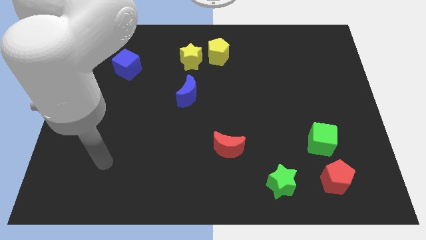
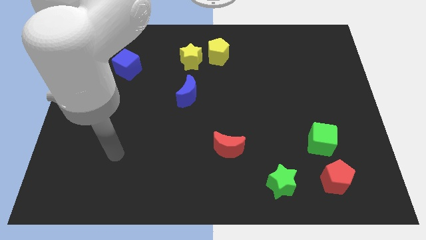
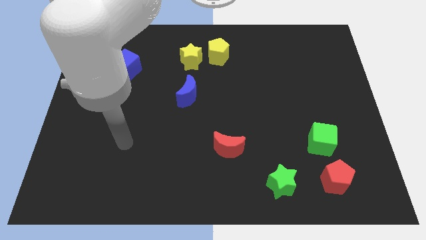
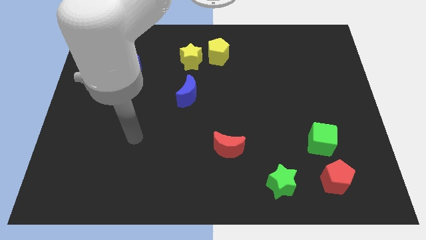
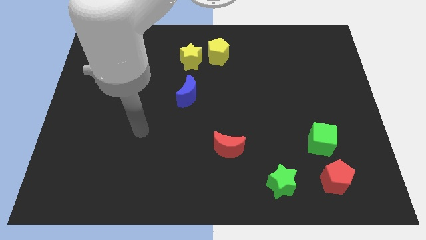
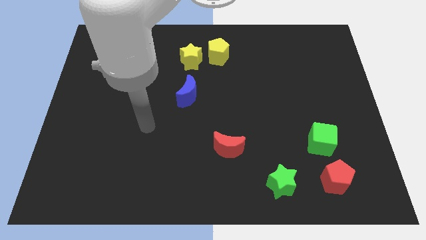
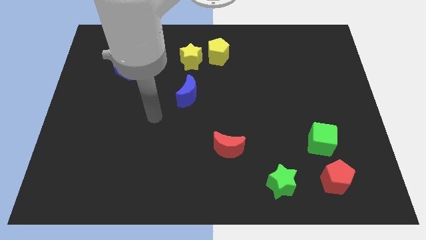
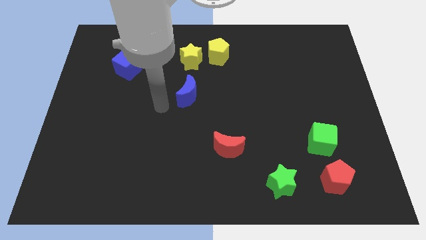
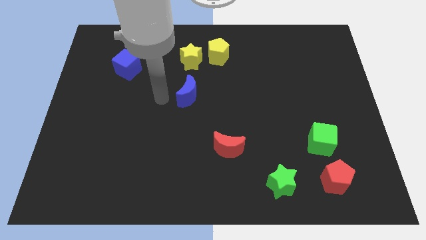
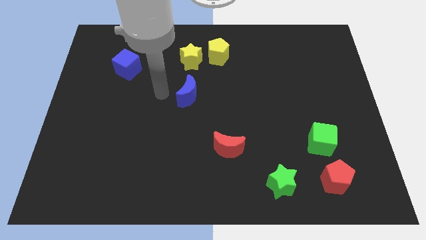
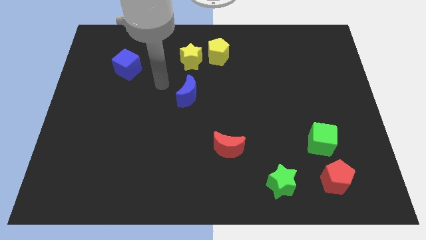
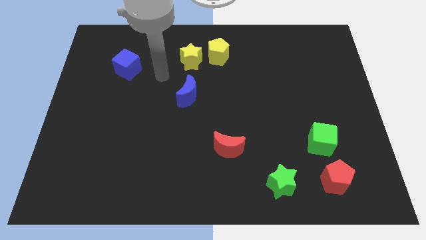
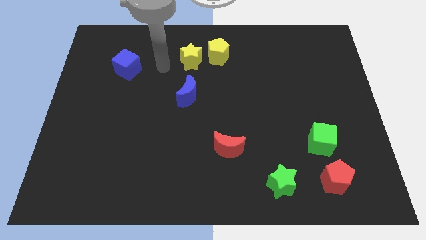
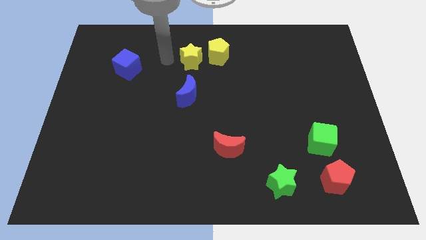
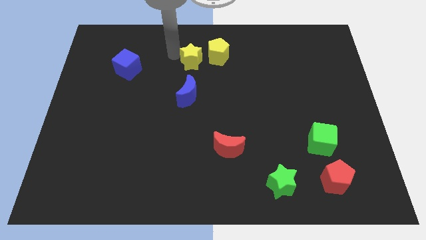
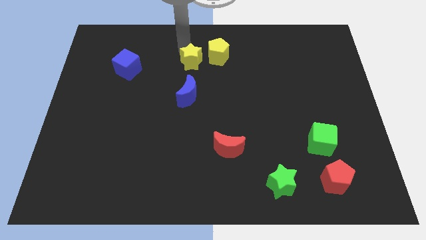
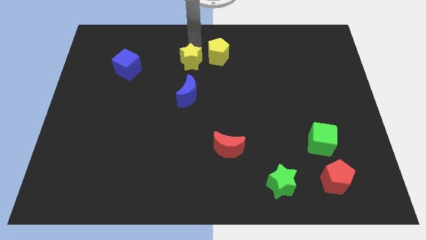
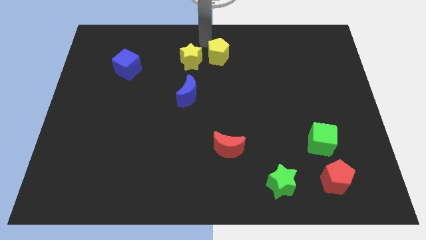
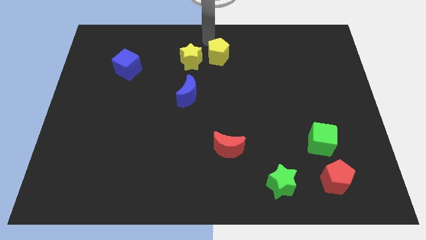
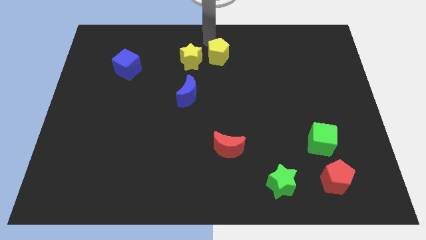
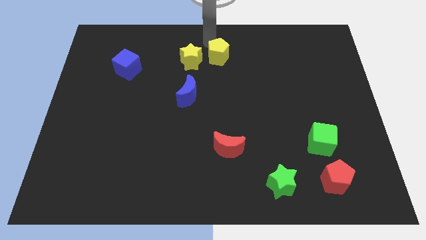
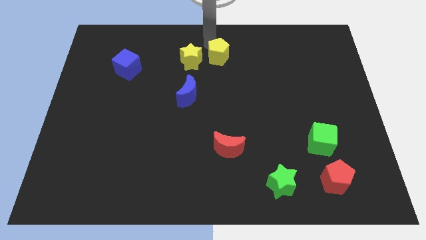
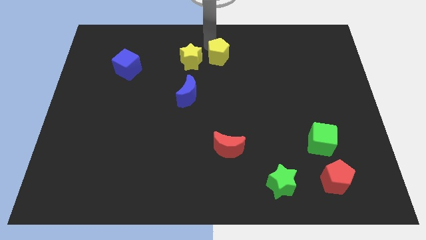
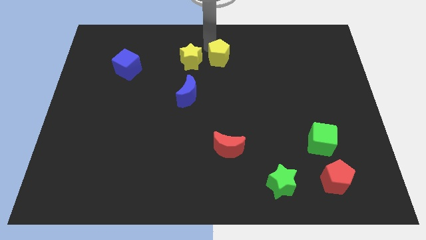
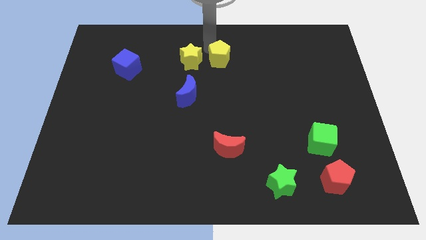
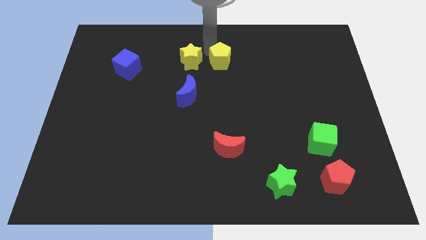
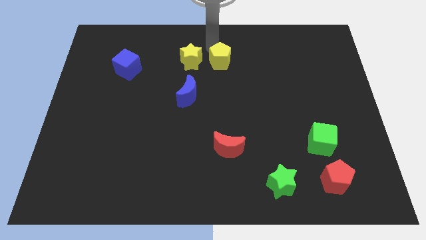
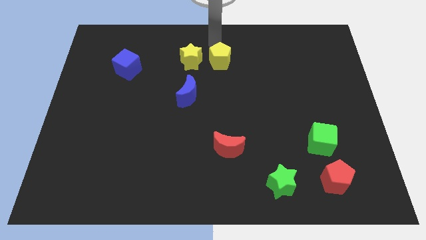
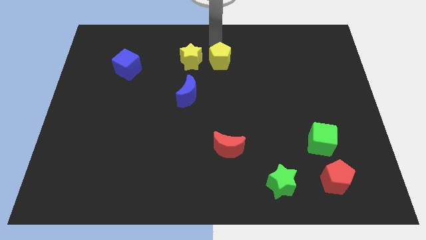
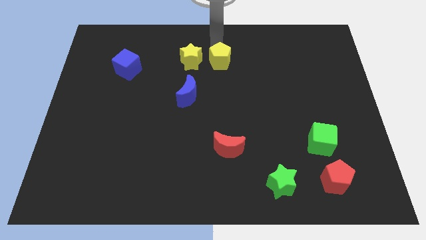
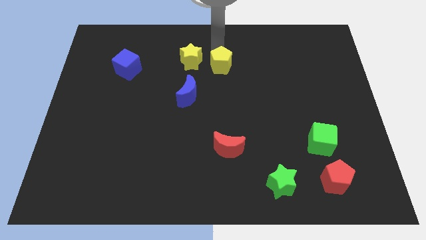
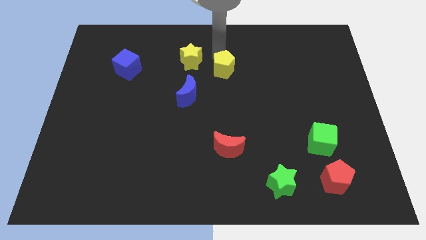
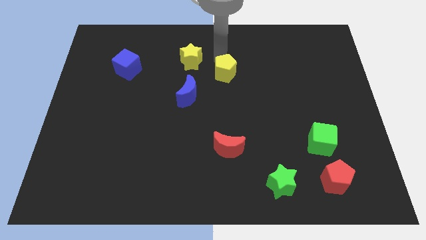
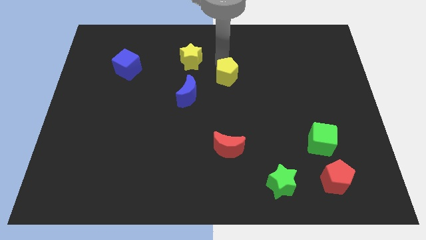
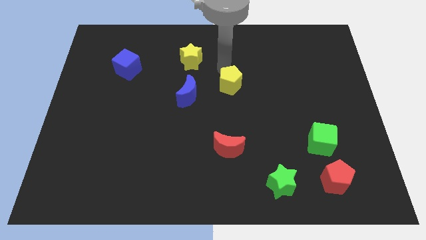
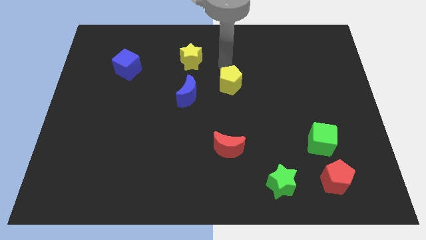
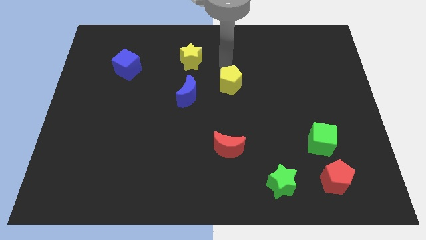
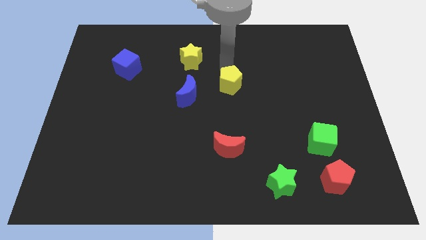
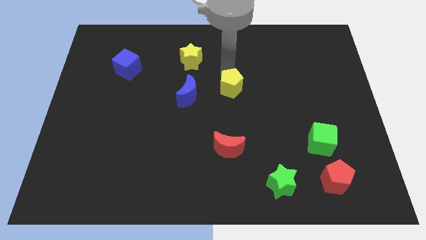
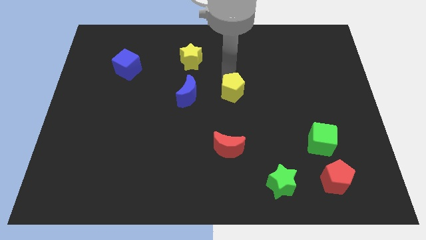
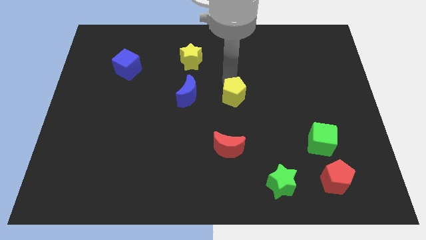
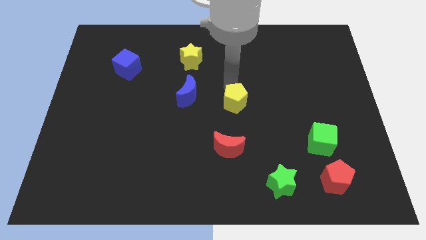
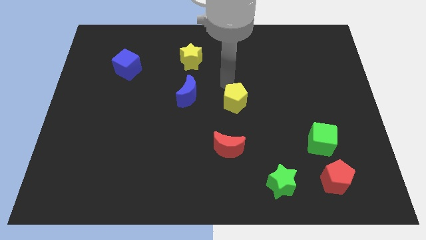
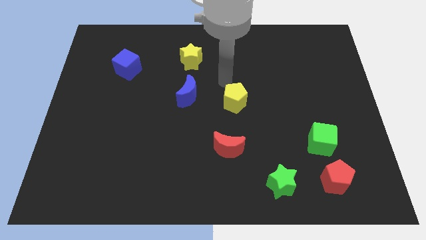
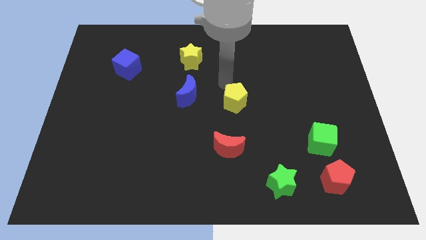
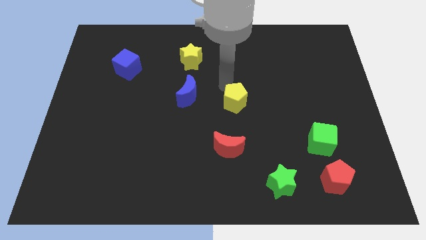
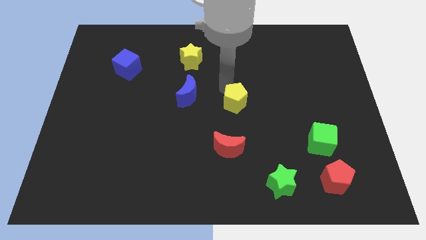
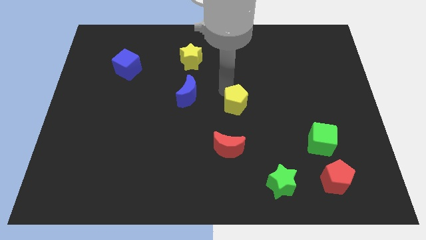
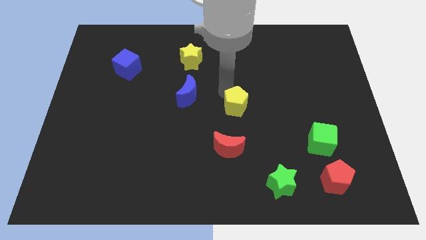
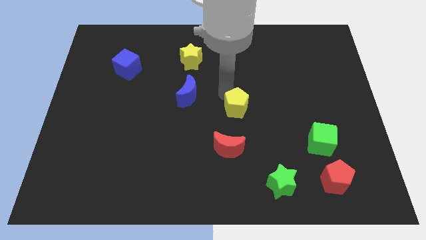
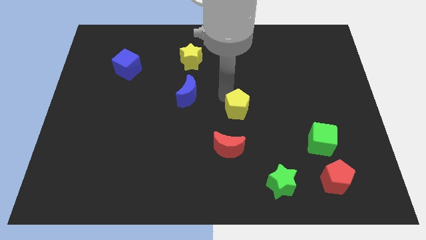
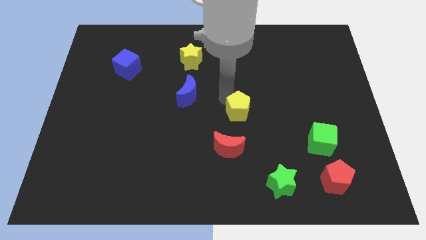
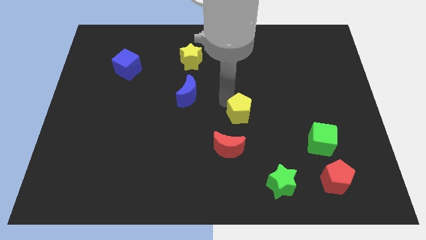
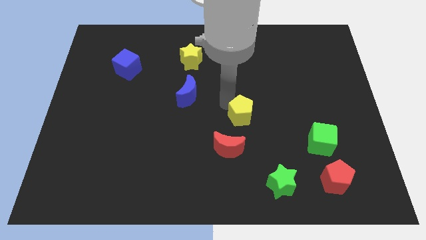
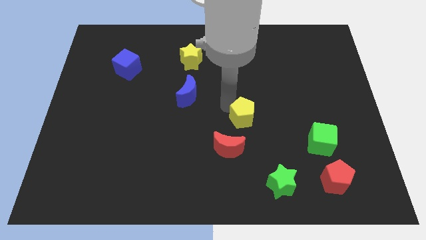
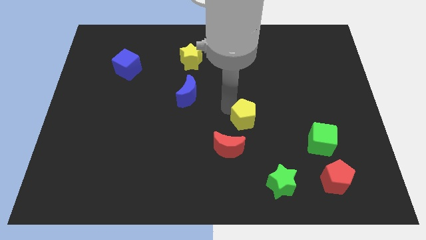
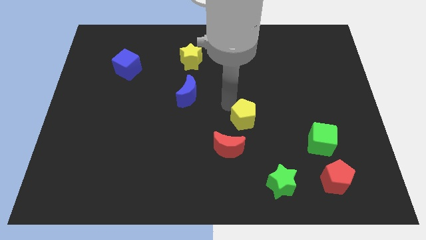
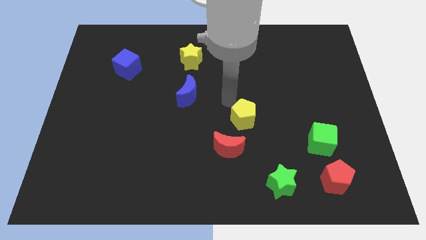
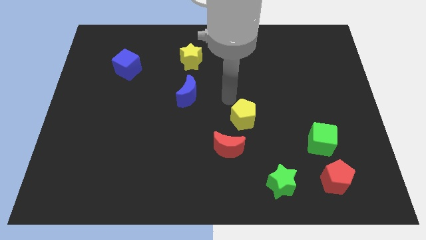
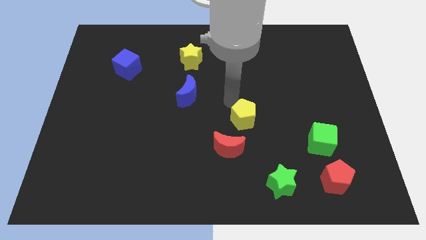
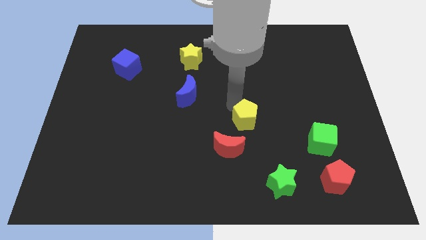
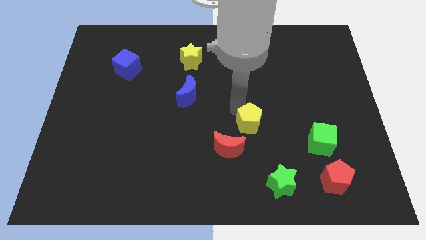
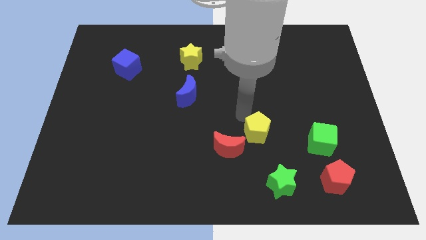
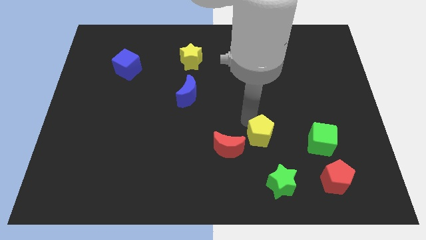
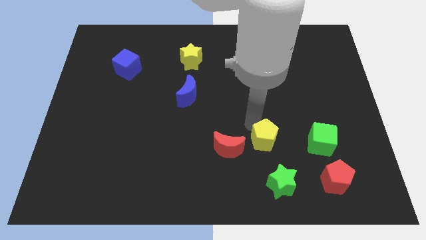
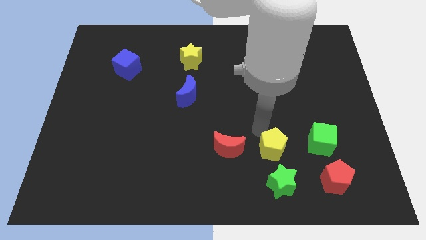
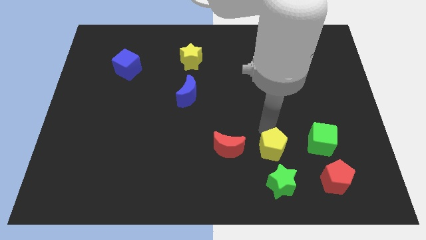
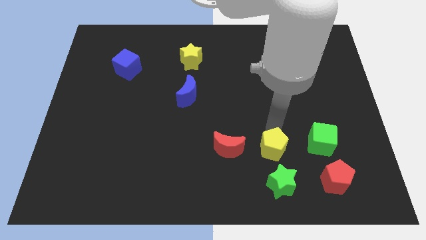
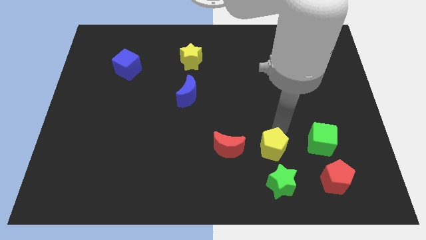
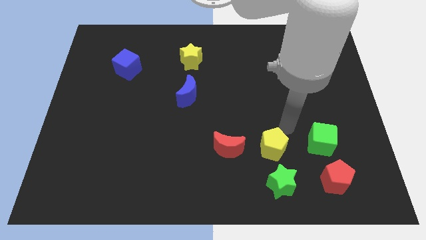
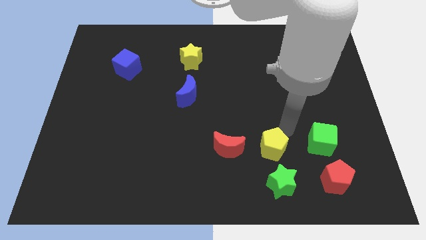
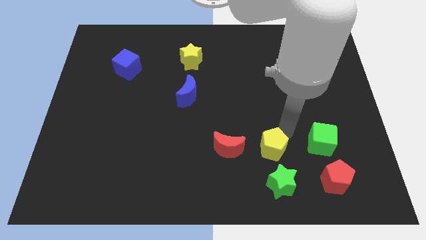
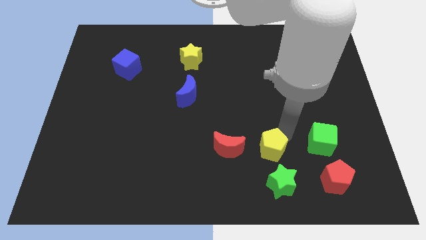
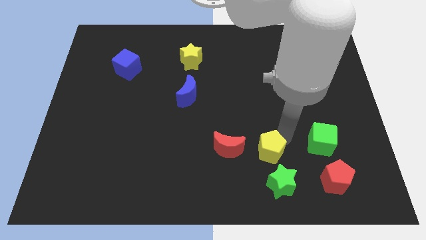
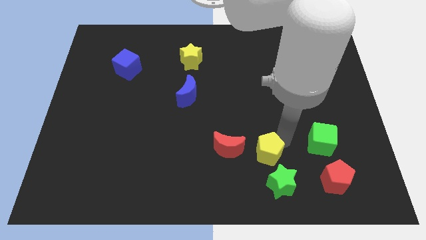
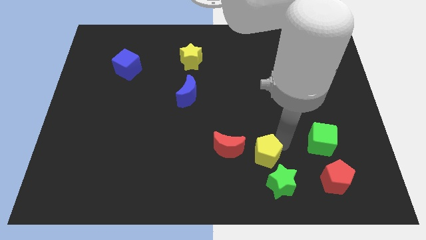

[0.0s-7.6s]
push the yellow pentagon to the bottom right of the red moon

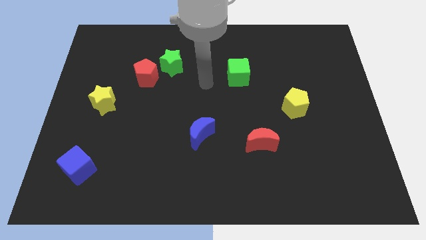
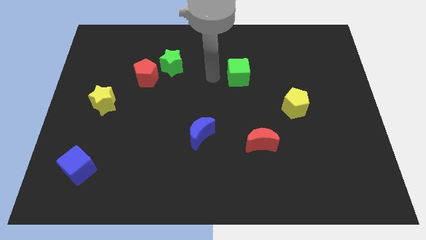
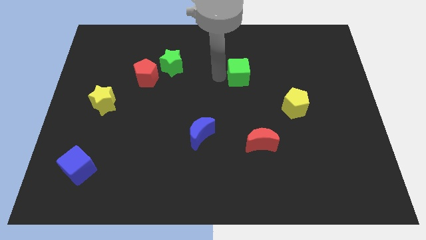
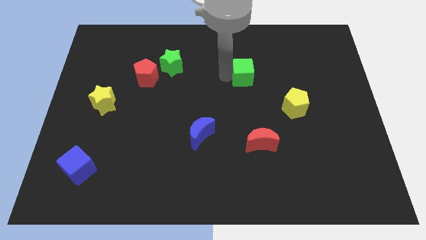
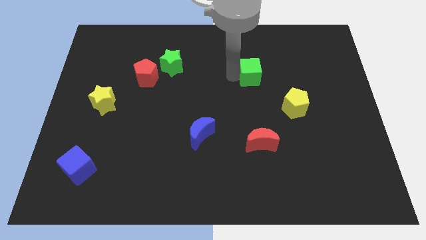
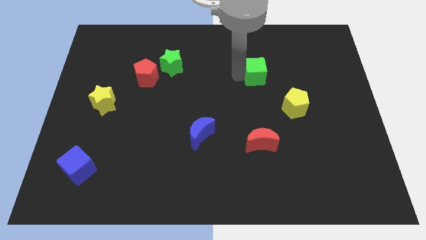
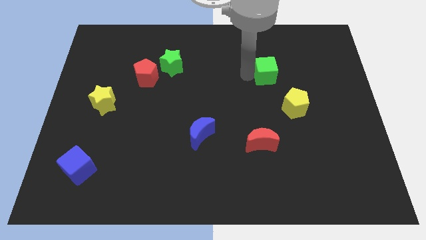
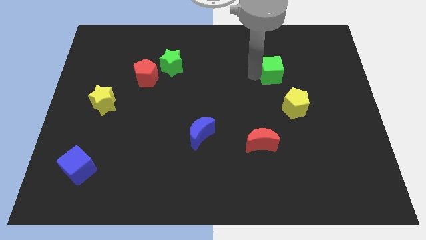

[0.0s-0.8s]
move the green cube above the yellow pentagon
